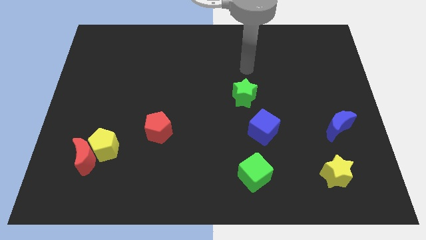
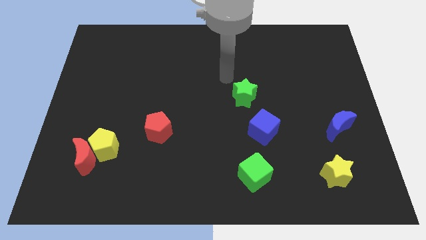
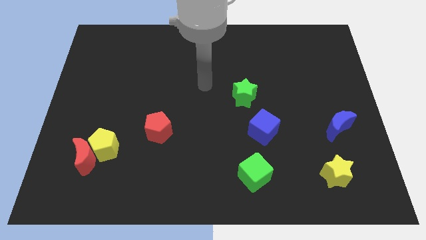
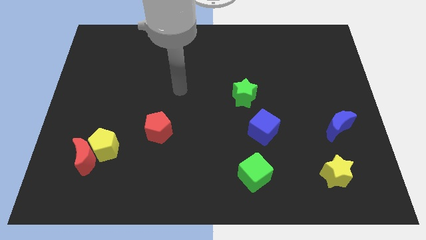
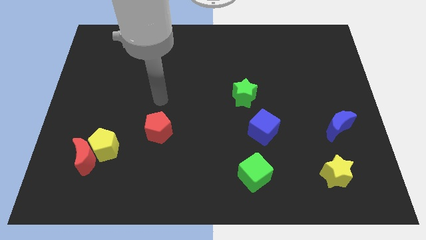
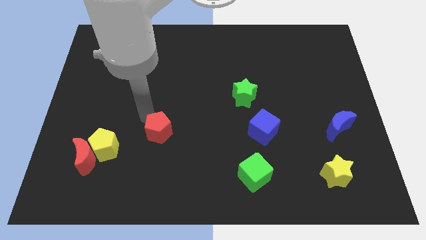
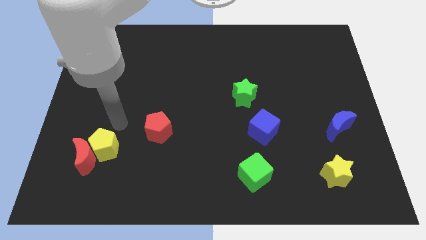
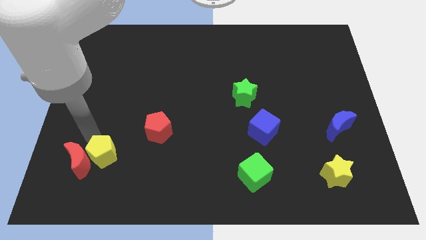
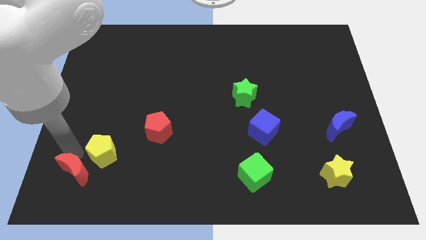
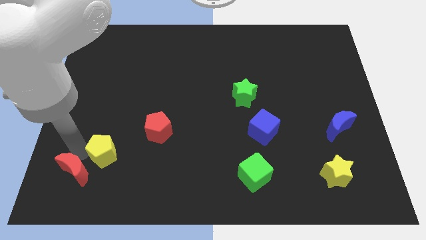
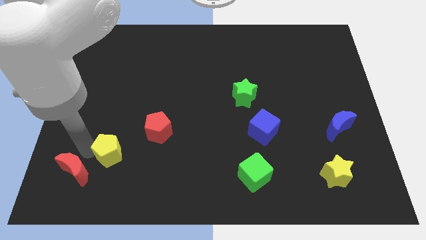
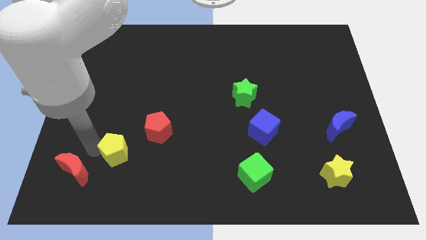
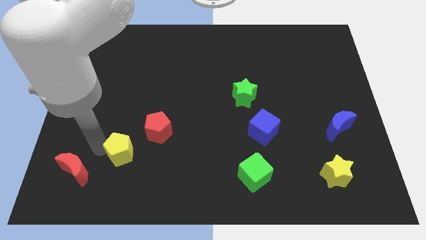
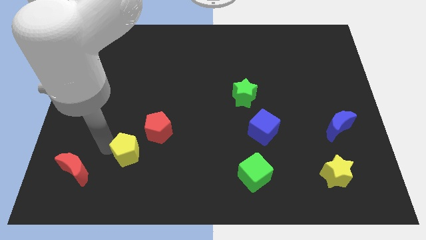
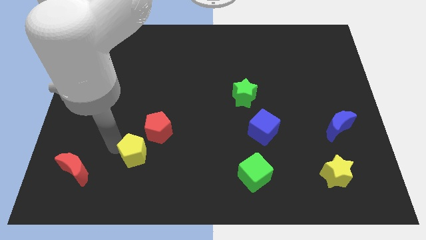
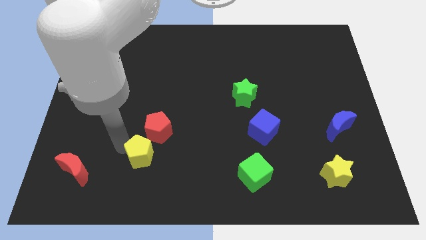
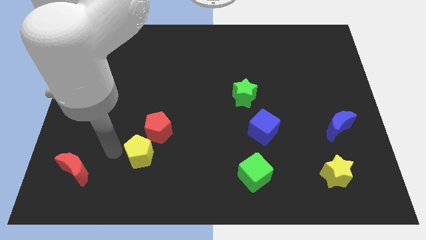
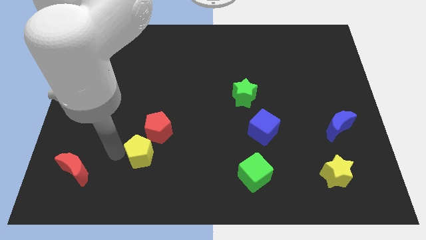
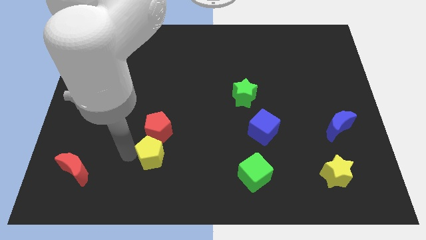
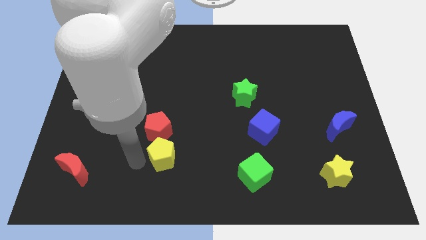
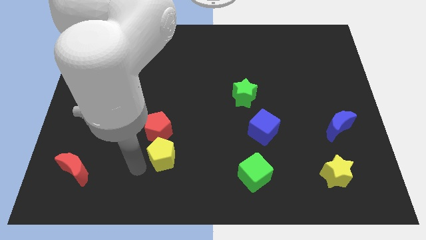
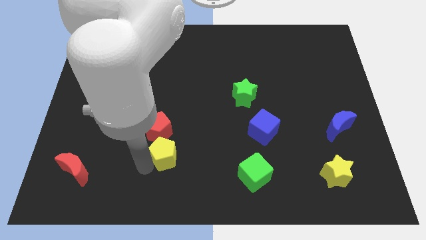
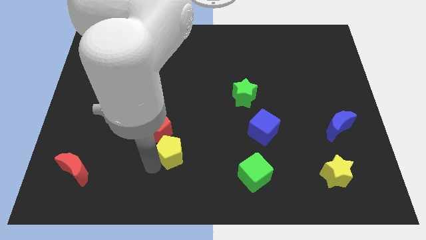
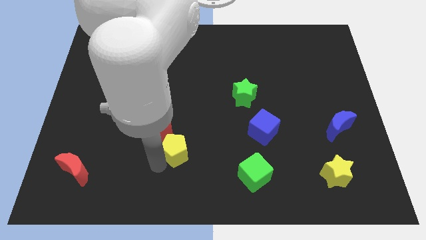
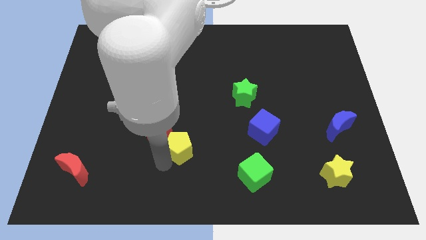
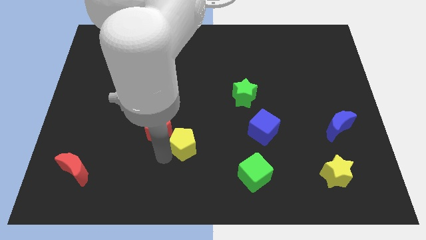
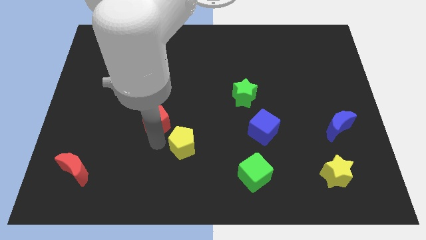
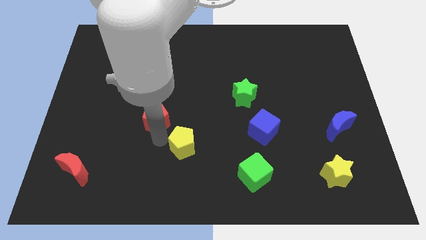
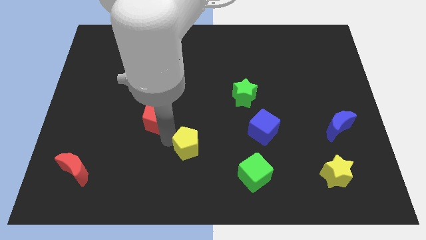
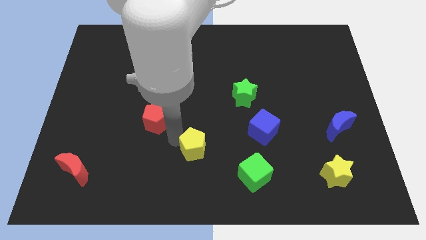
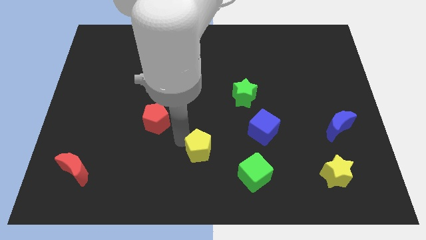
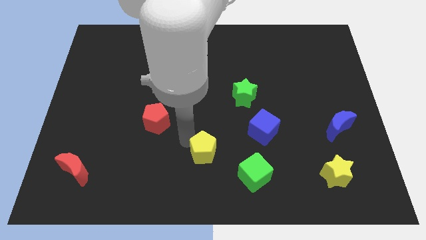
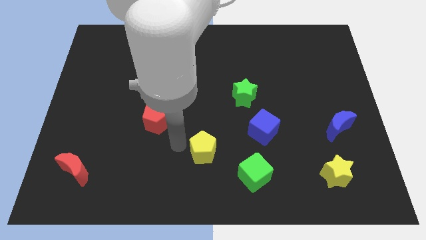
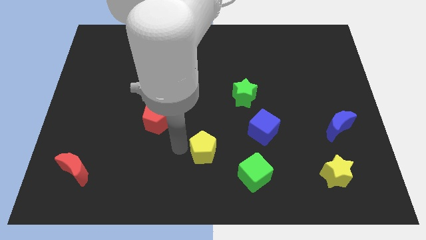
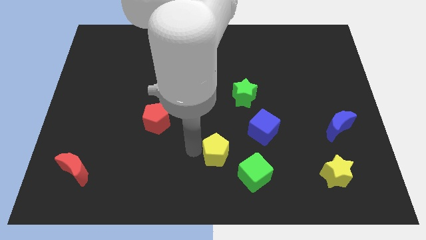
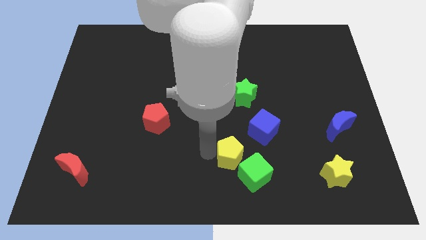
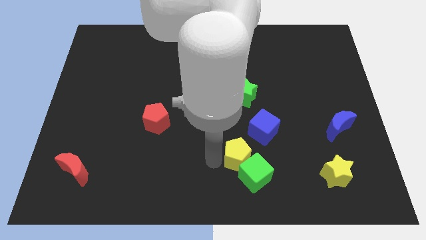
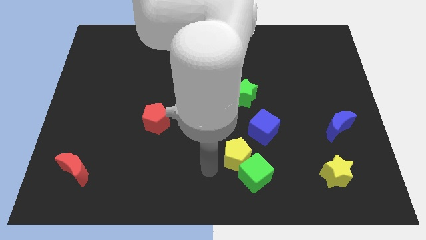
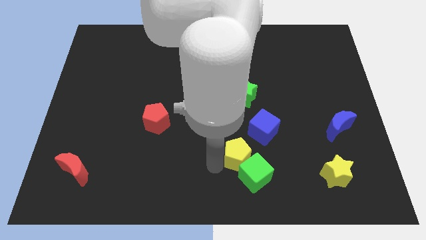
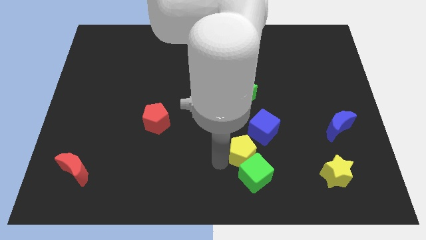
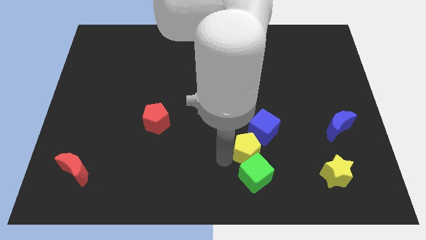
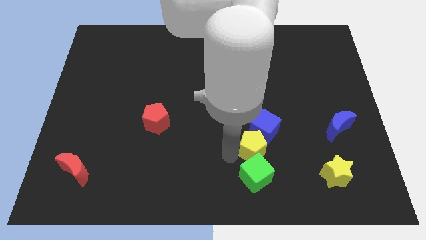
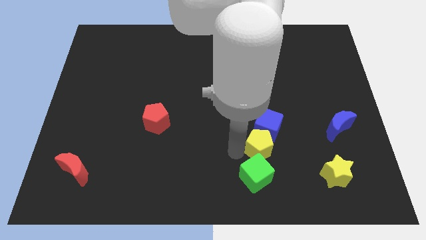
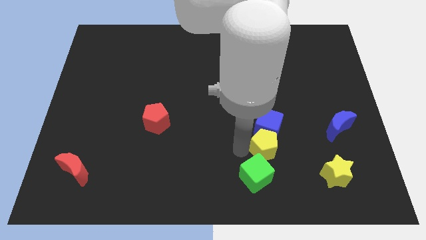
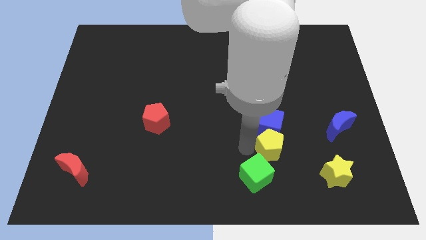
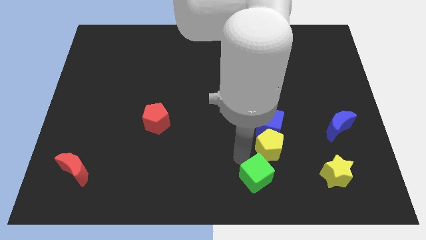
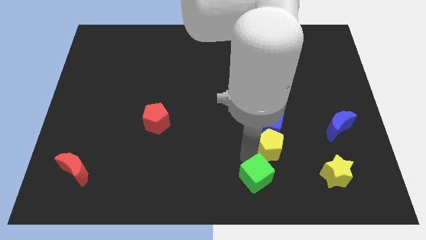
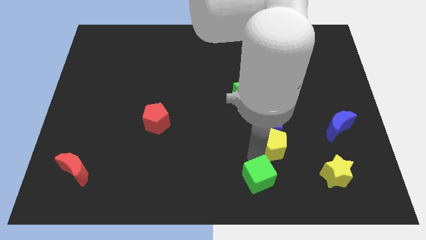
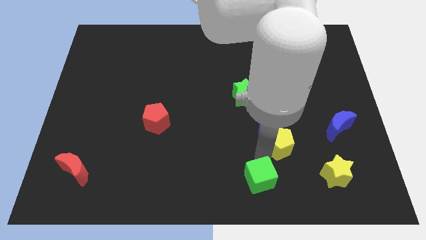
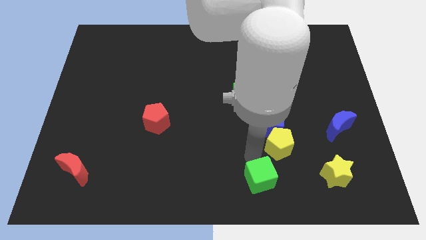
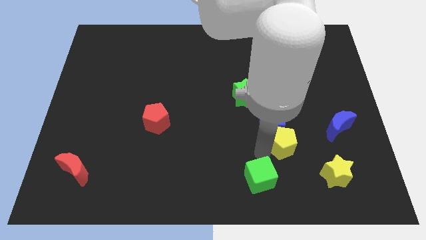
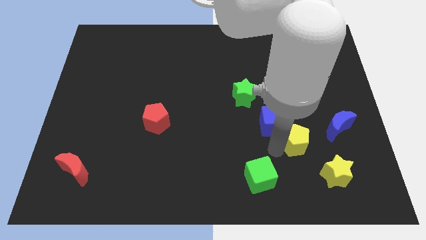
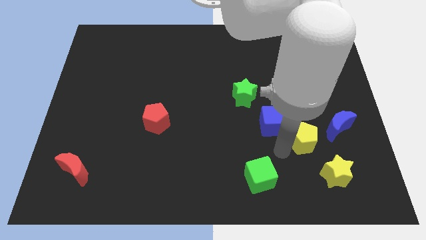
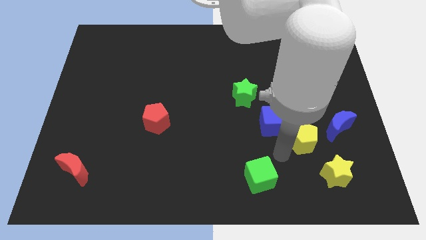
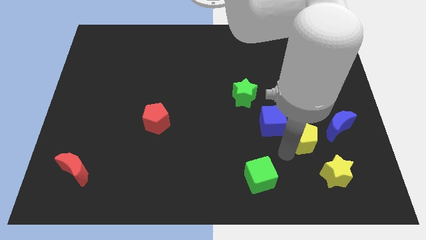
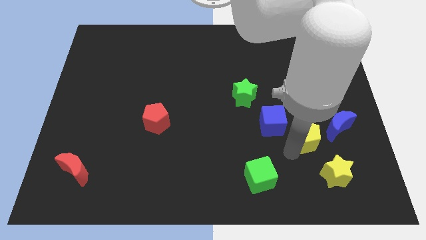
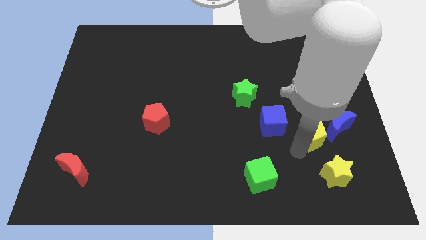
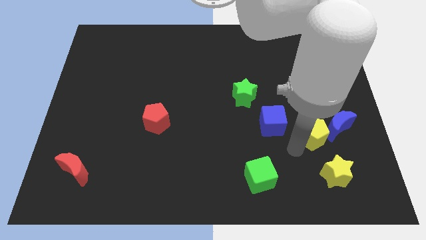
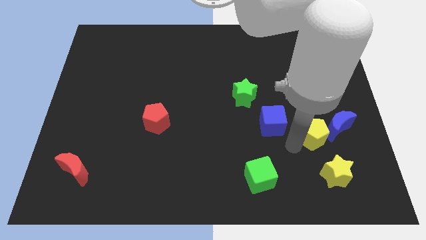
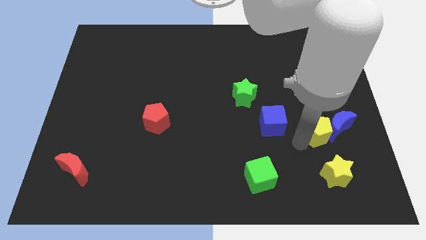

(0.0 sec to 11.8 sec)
push the yellow pentagon close to the blue moon

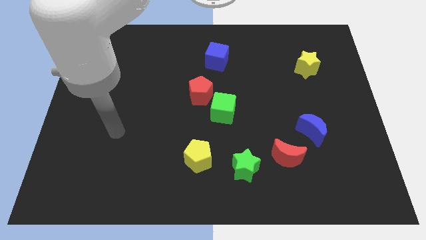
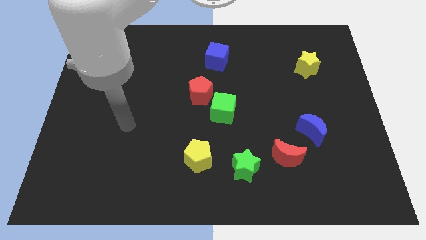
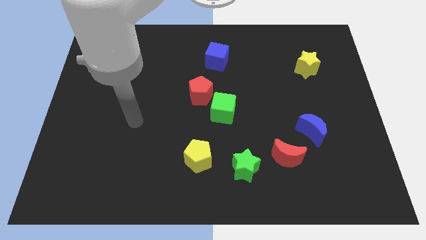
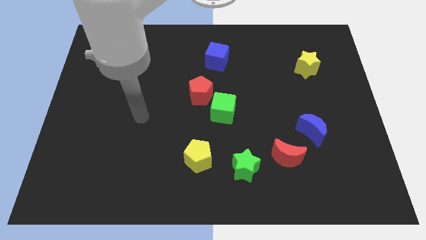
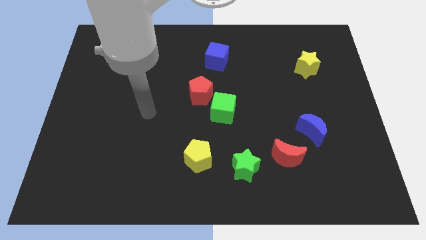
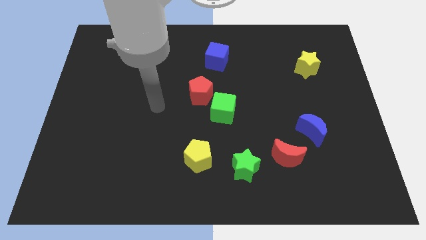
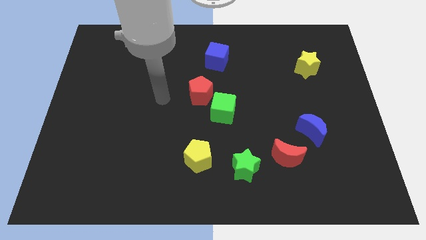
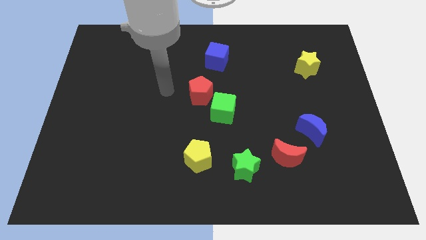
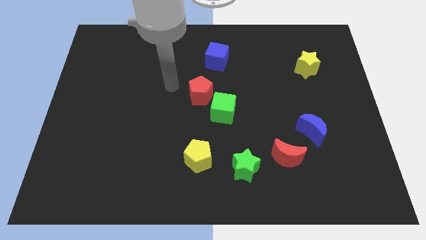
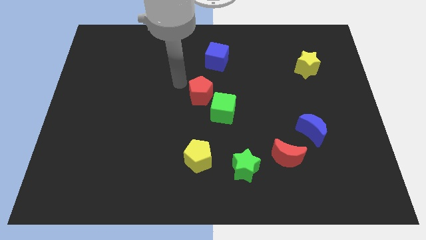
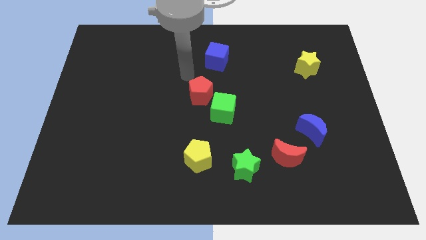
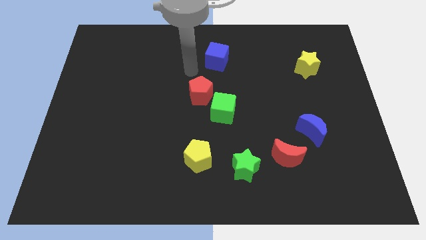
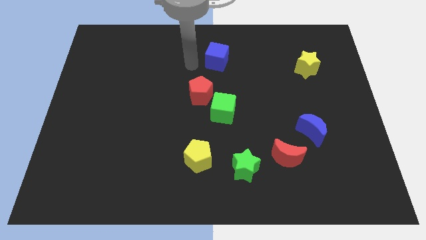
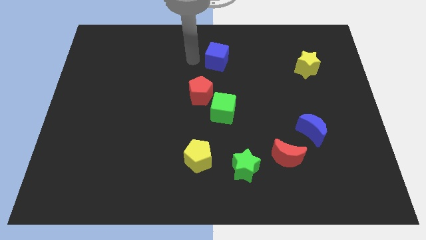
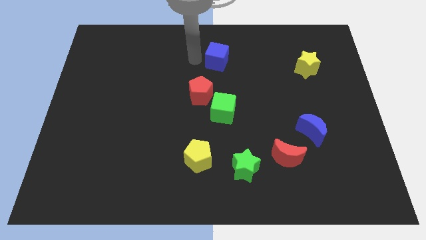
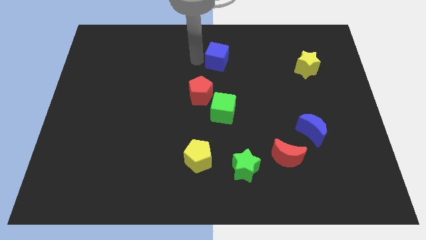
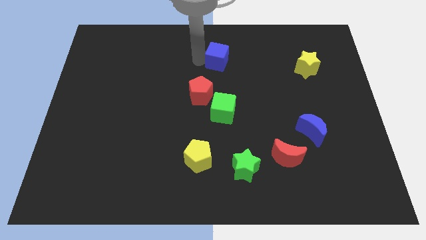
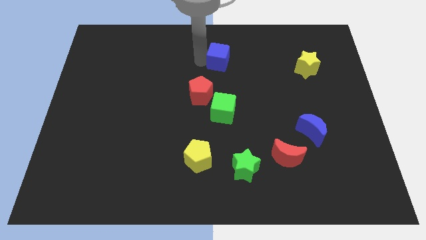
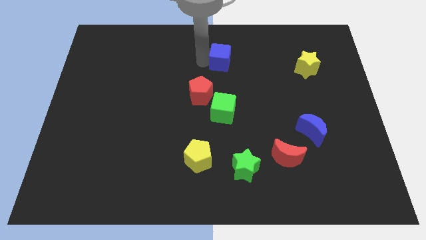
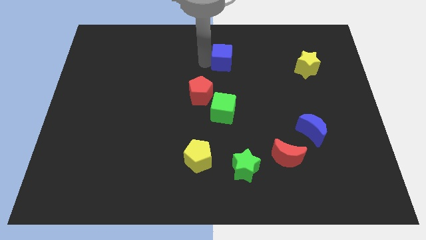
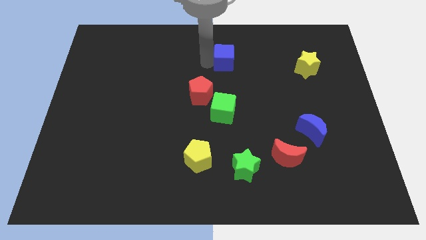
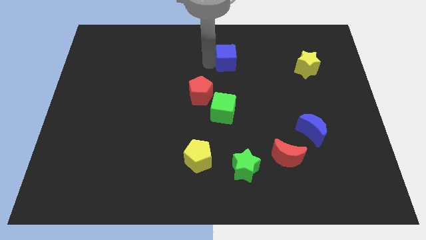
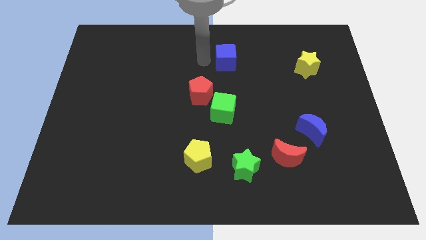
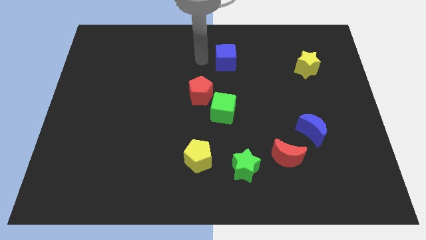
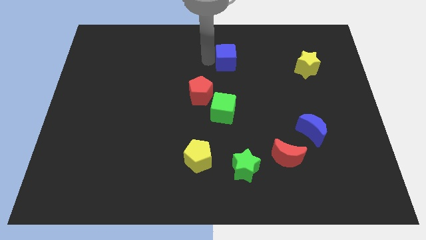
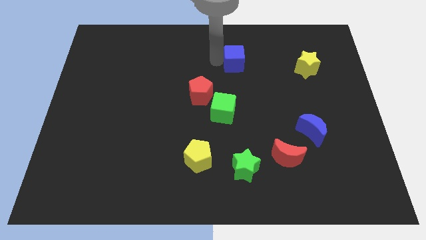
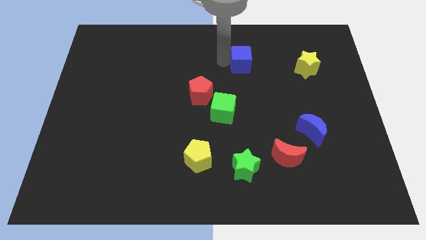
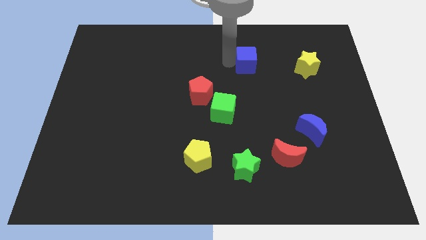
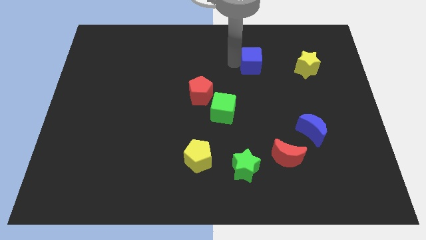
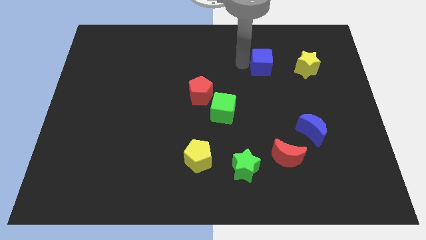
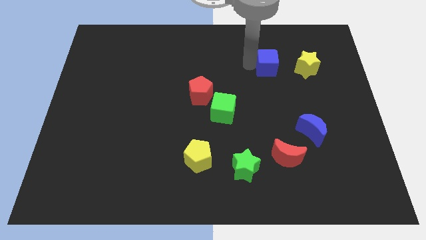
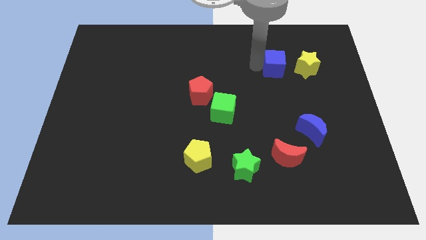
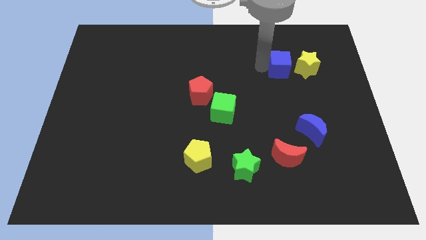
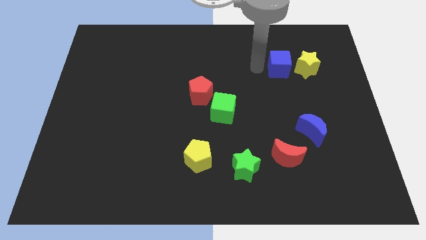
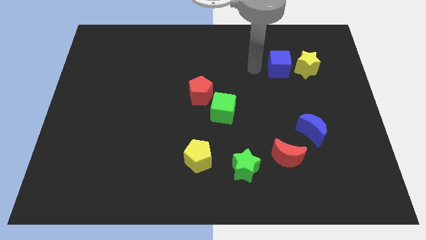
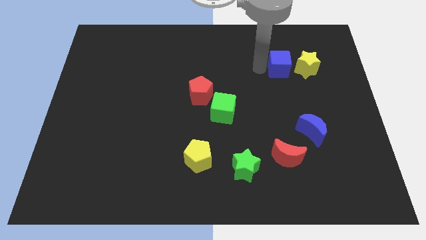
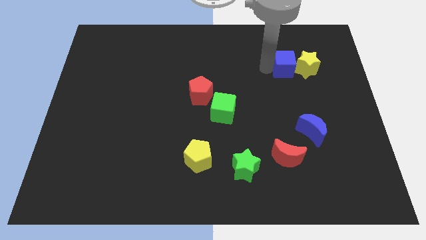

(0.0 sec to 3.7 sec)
move the blue cube to the yellow star
